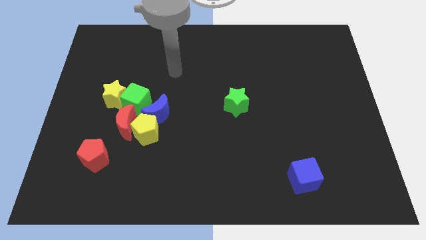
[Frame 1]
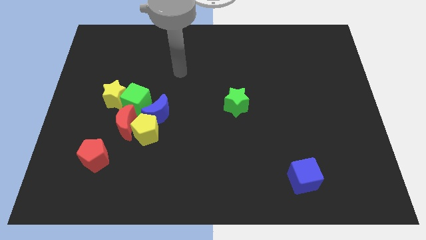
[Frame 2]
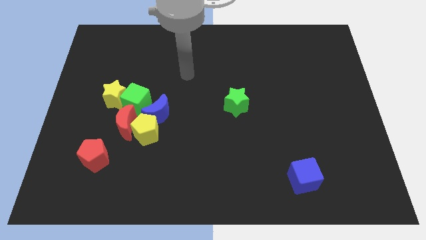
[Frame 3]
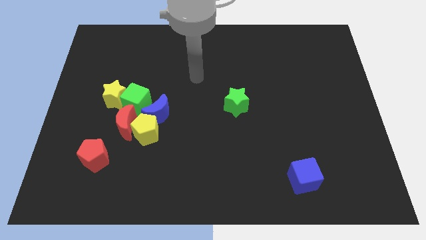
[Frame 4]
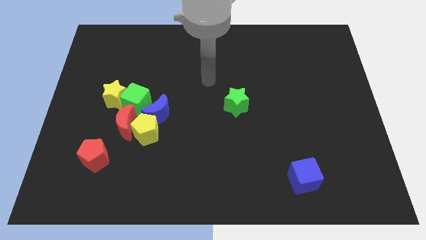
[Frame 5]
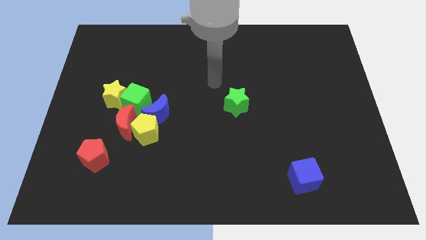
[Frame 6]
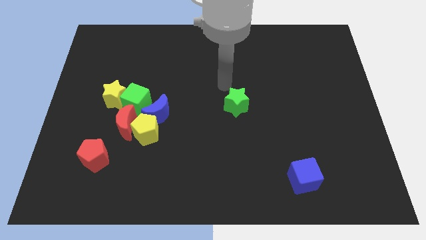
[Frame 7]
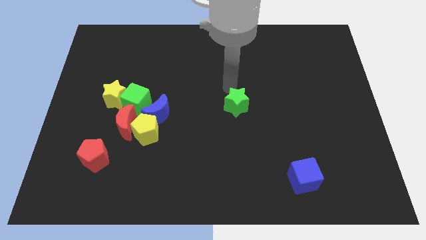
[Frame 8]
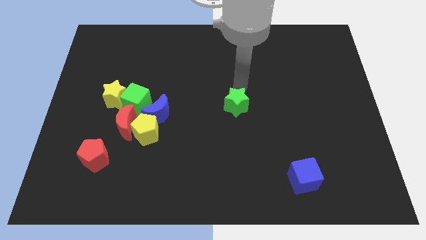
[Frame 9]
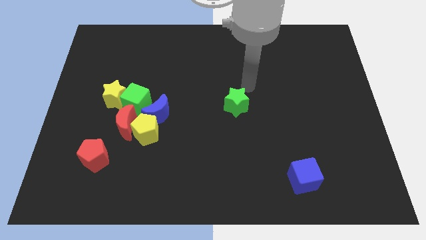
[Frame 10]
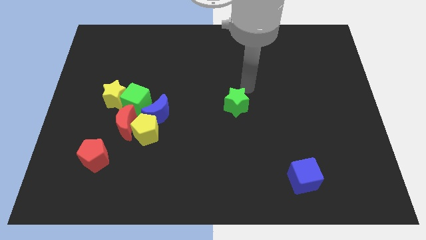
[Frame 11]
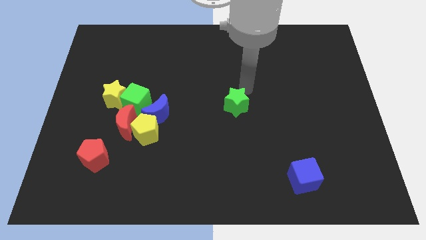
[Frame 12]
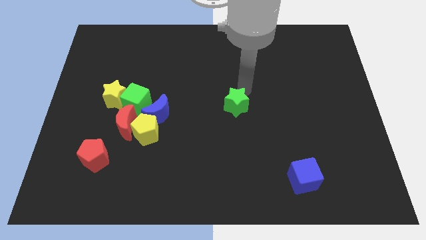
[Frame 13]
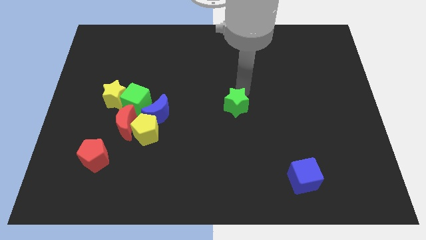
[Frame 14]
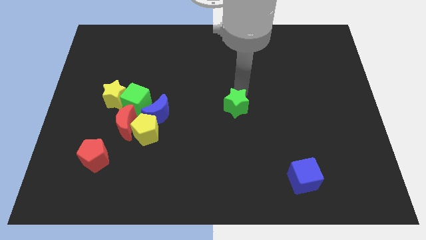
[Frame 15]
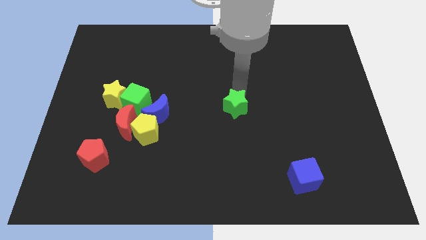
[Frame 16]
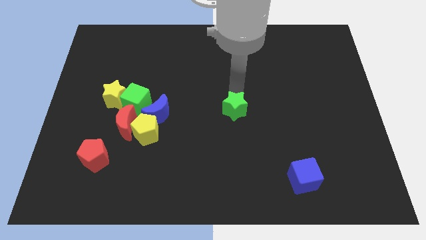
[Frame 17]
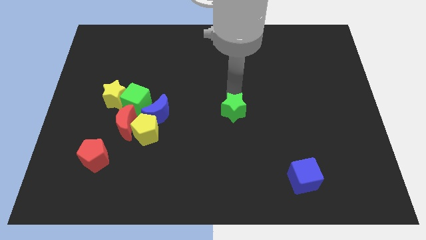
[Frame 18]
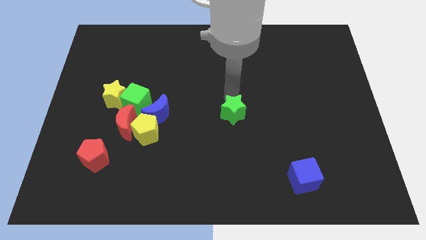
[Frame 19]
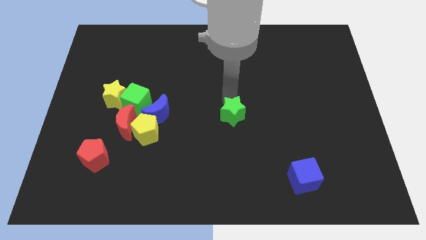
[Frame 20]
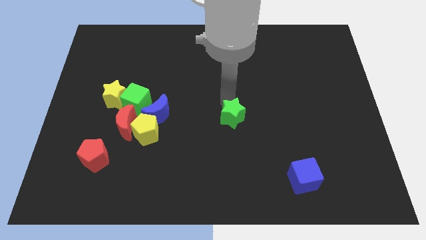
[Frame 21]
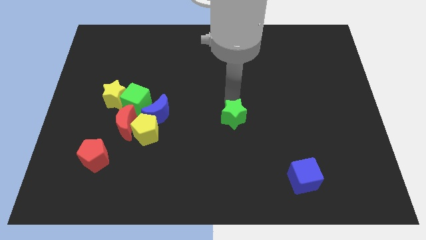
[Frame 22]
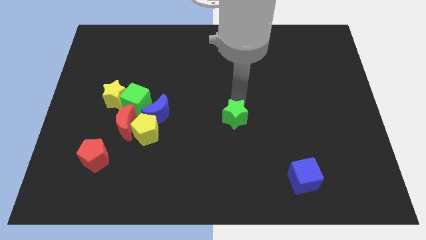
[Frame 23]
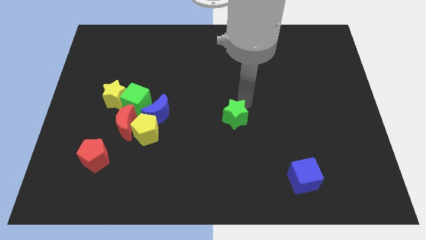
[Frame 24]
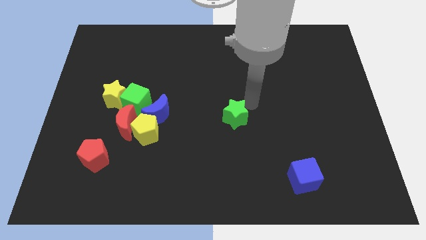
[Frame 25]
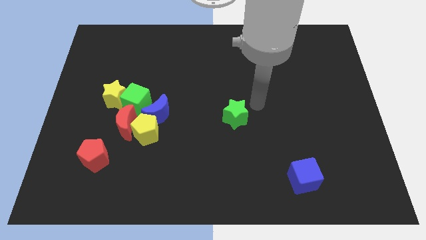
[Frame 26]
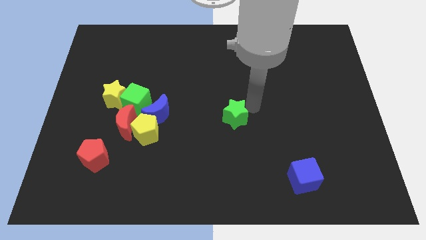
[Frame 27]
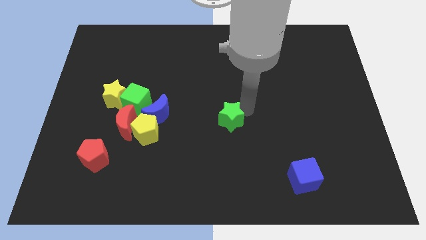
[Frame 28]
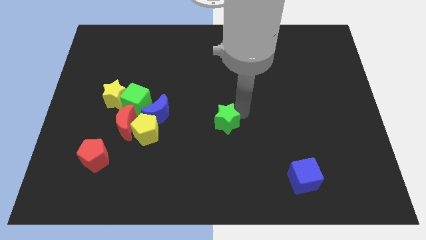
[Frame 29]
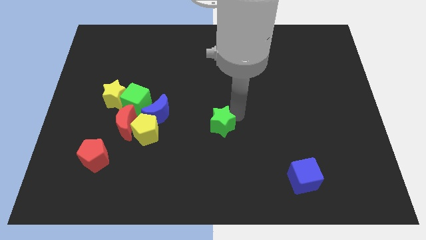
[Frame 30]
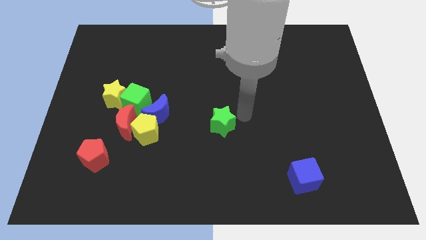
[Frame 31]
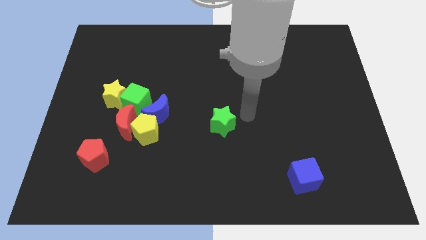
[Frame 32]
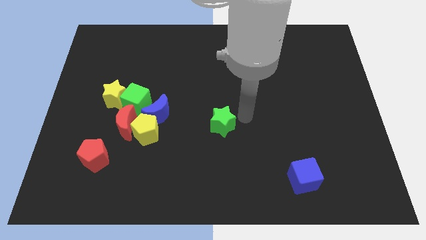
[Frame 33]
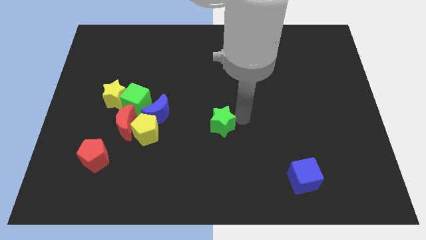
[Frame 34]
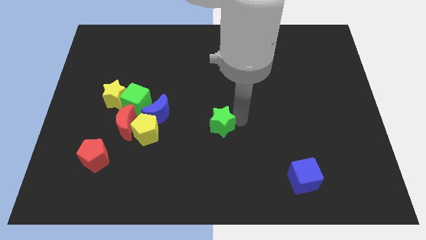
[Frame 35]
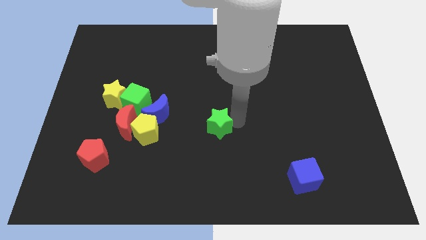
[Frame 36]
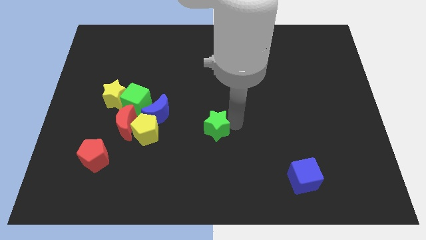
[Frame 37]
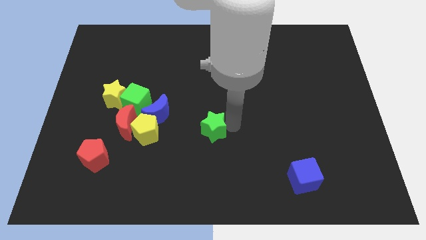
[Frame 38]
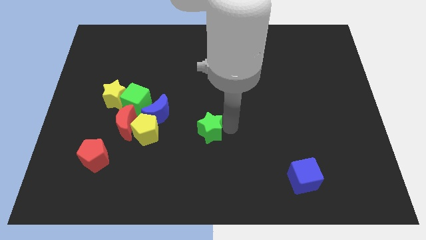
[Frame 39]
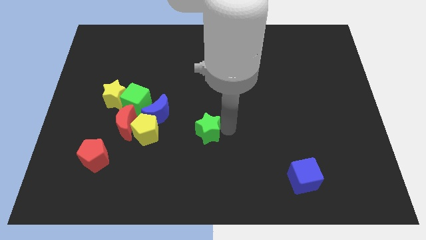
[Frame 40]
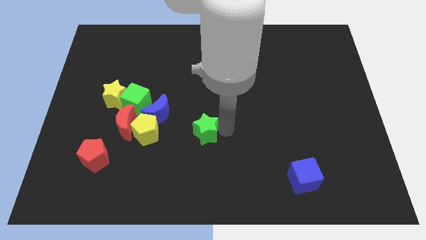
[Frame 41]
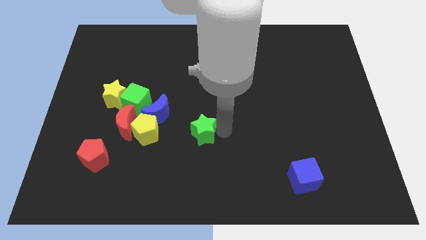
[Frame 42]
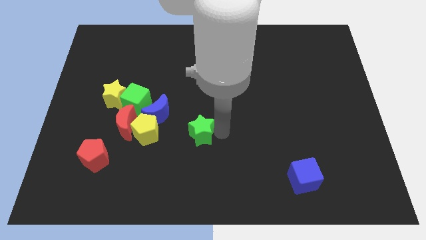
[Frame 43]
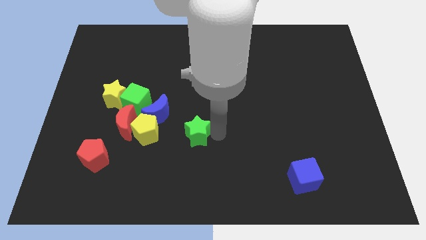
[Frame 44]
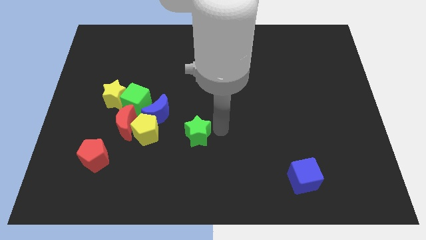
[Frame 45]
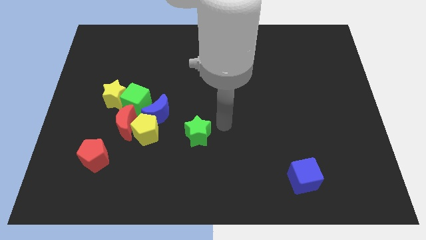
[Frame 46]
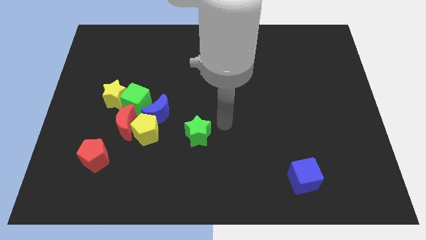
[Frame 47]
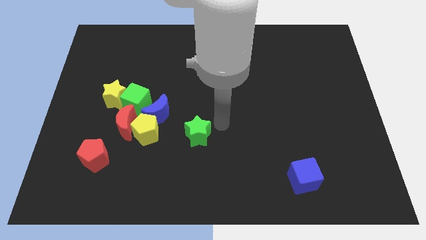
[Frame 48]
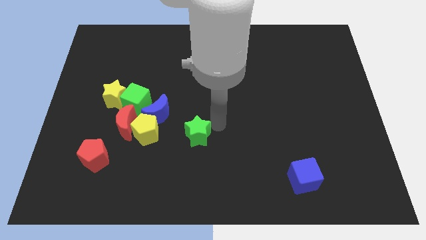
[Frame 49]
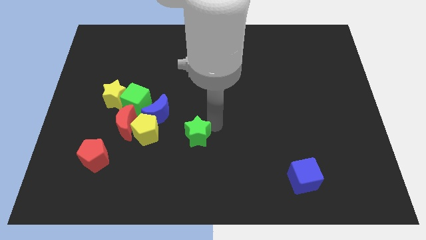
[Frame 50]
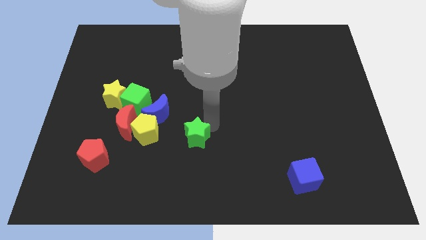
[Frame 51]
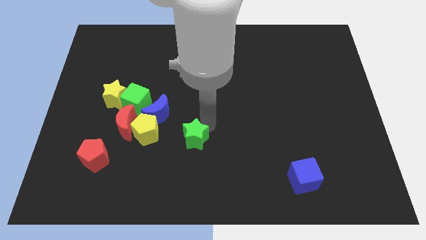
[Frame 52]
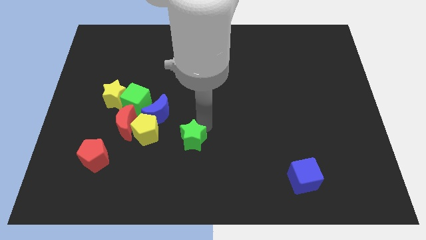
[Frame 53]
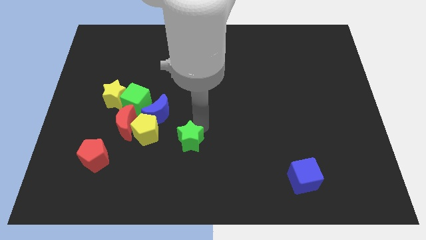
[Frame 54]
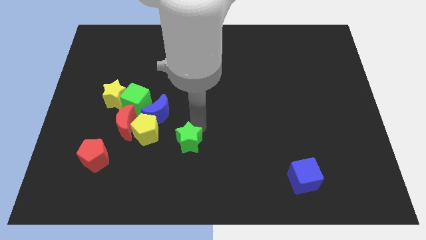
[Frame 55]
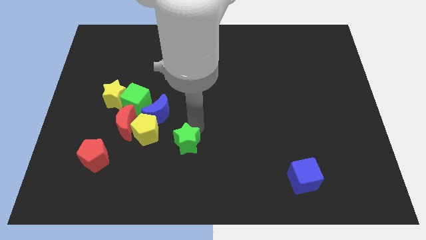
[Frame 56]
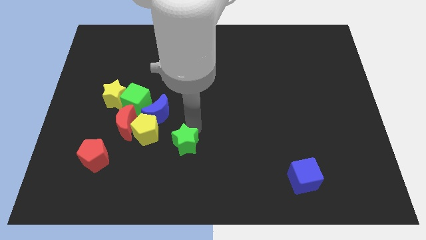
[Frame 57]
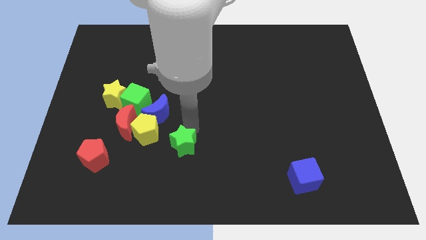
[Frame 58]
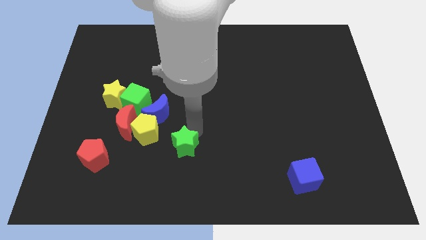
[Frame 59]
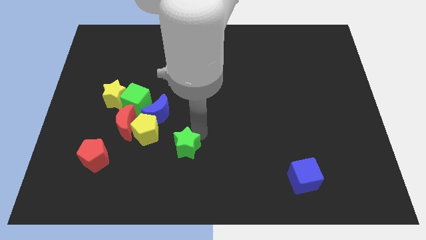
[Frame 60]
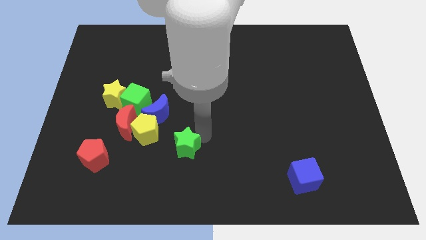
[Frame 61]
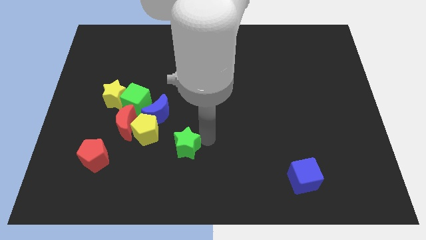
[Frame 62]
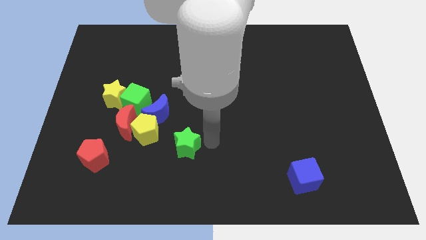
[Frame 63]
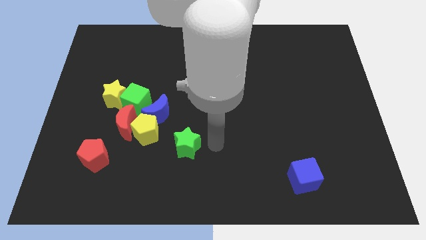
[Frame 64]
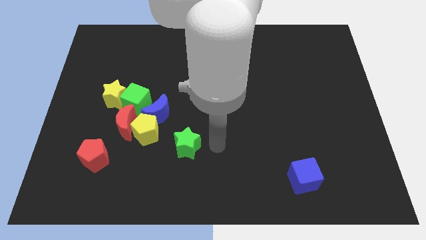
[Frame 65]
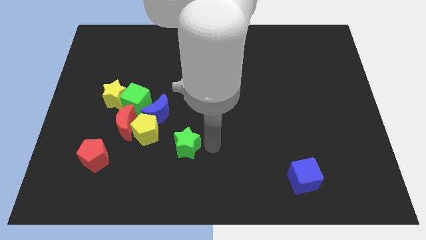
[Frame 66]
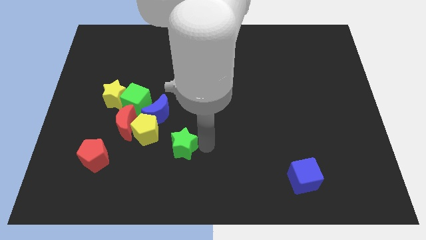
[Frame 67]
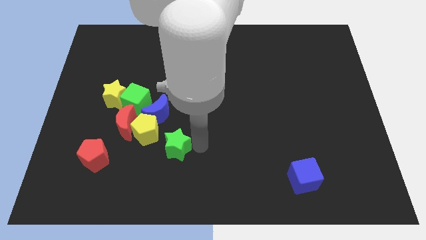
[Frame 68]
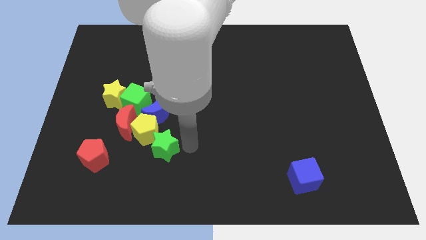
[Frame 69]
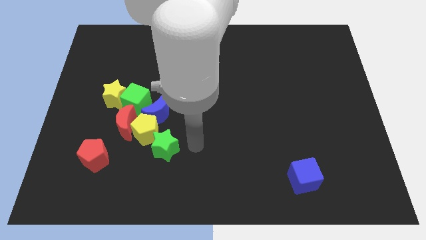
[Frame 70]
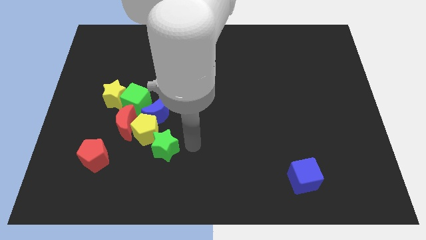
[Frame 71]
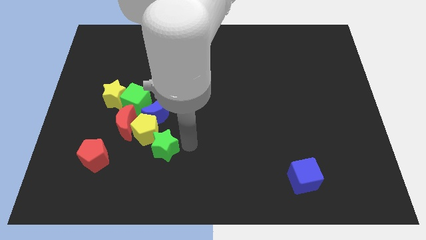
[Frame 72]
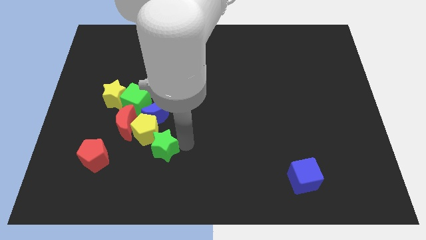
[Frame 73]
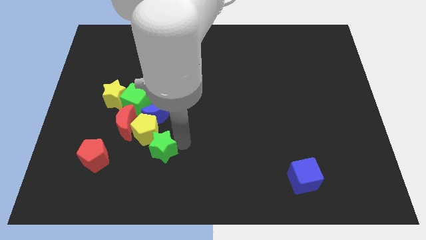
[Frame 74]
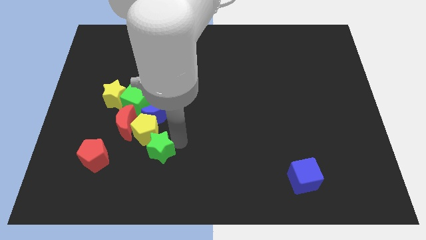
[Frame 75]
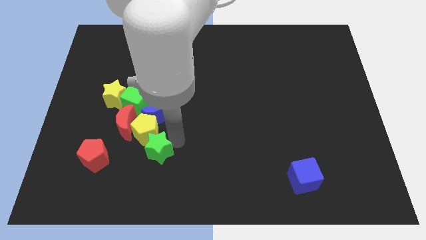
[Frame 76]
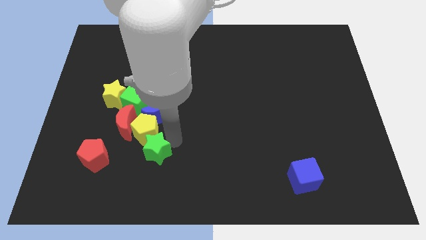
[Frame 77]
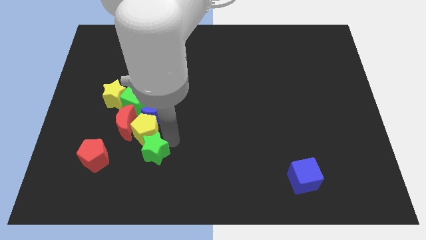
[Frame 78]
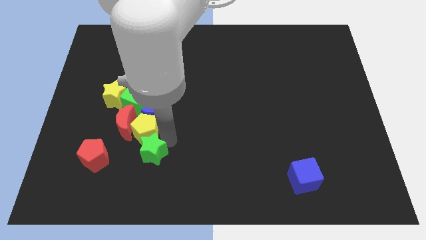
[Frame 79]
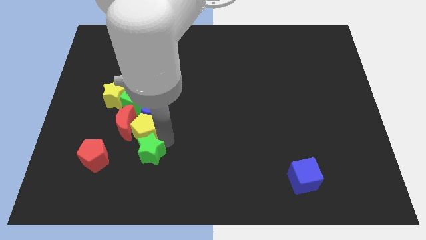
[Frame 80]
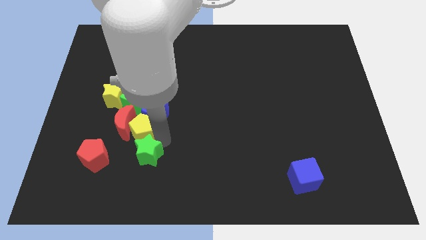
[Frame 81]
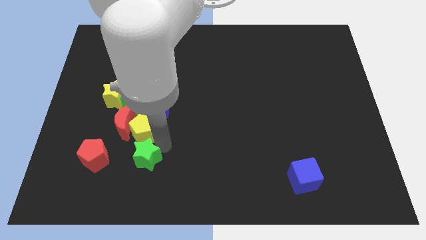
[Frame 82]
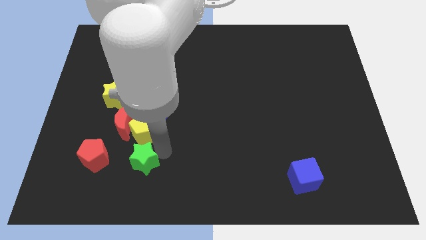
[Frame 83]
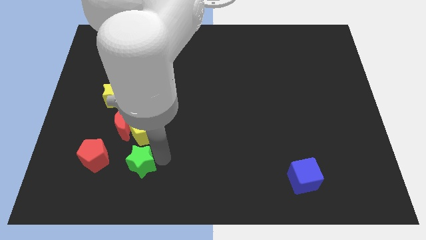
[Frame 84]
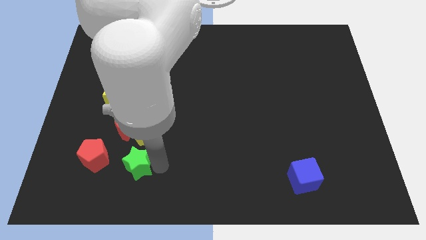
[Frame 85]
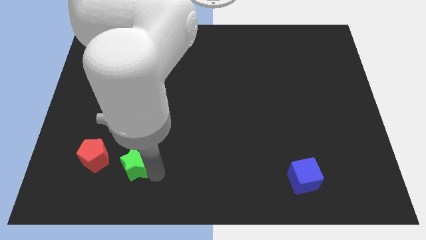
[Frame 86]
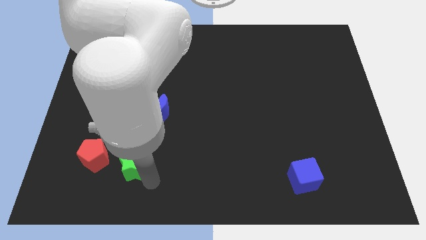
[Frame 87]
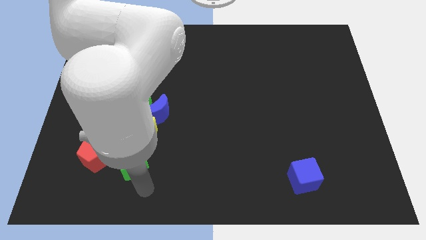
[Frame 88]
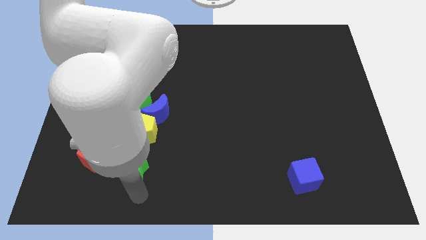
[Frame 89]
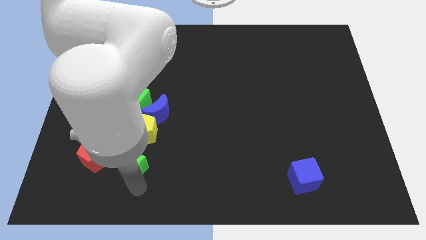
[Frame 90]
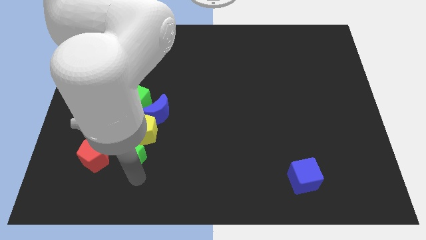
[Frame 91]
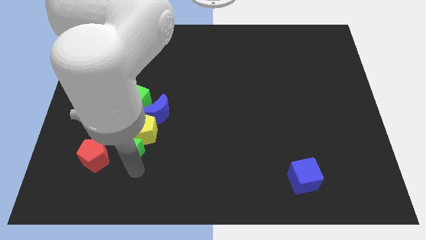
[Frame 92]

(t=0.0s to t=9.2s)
push the green star to the bottom left side of the blue moon
